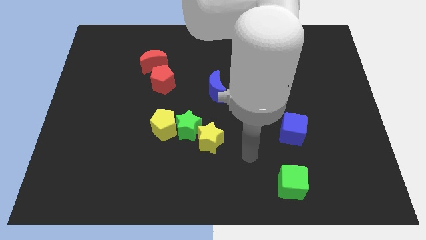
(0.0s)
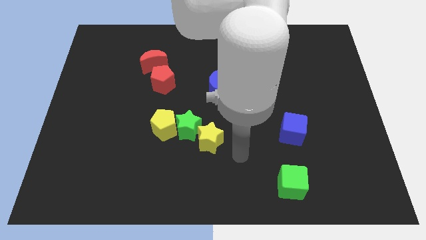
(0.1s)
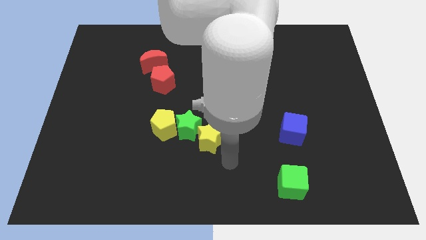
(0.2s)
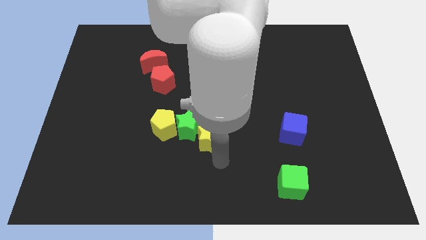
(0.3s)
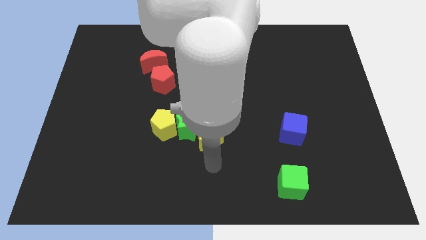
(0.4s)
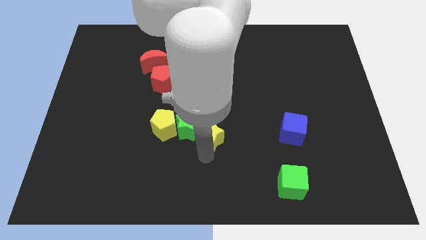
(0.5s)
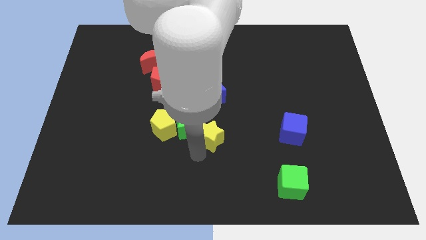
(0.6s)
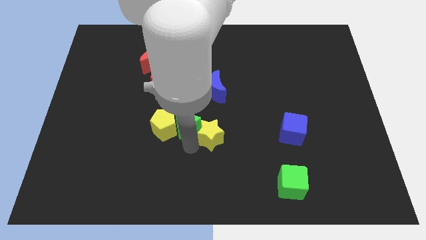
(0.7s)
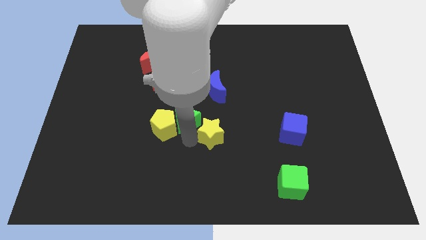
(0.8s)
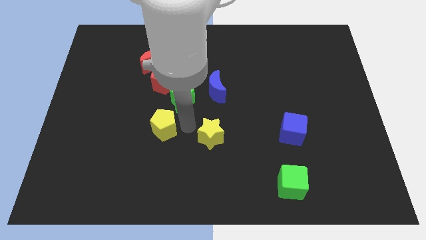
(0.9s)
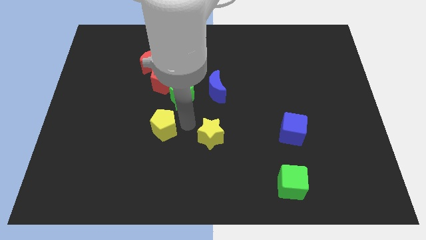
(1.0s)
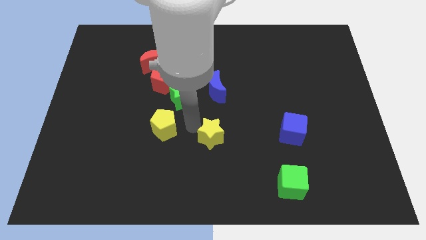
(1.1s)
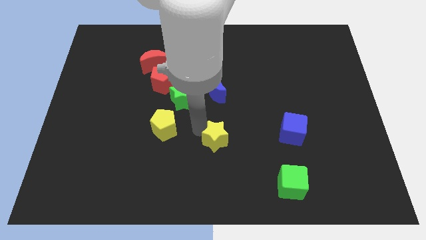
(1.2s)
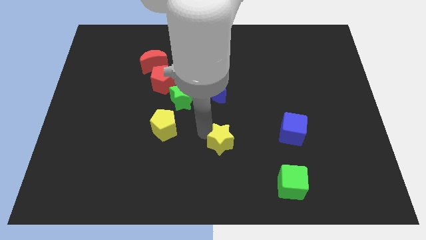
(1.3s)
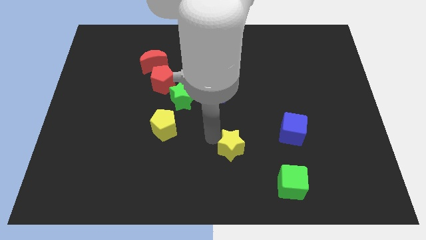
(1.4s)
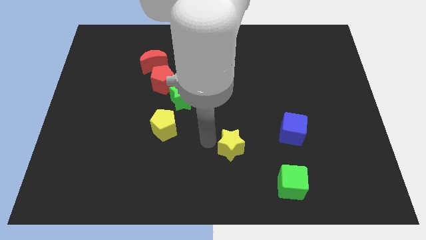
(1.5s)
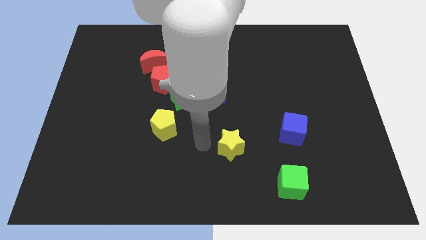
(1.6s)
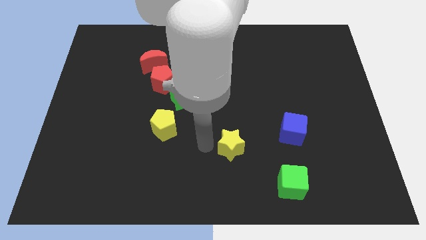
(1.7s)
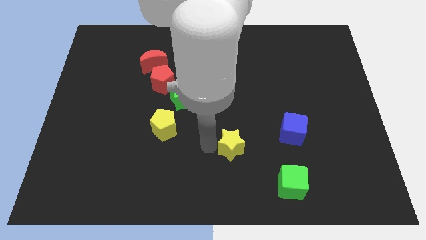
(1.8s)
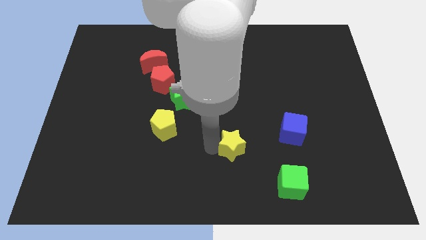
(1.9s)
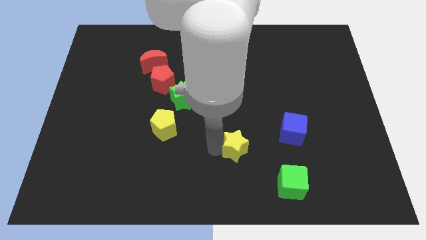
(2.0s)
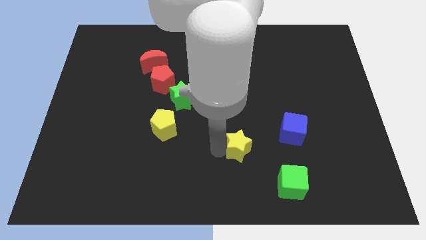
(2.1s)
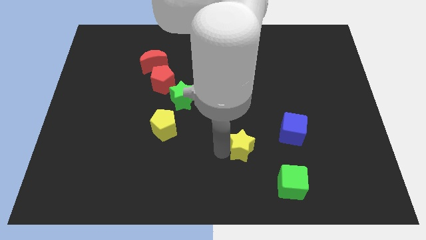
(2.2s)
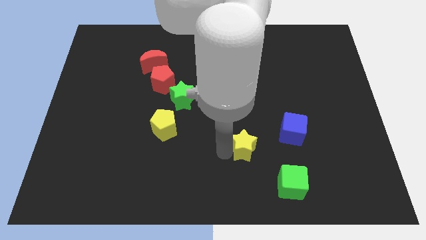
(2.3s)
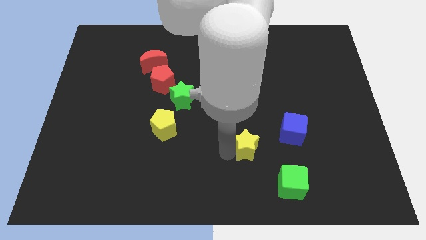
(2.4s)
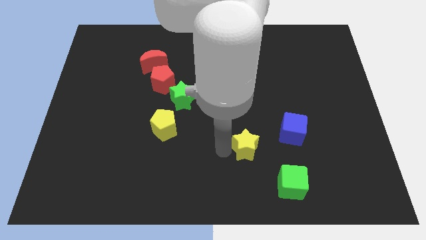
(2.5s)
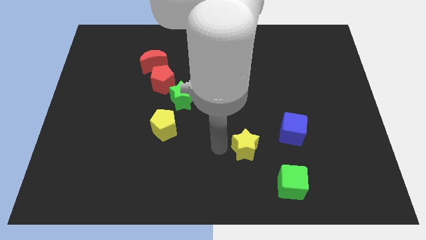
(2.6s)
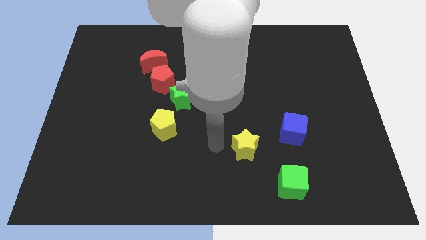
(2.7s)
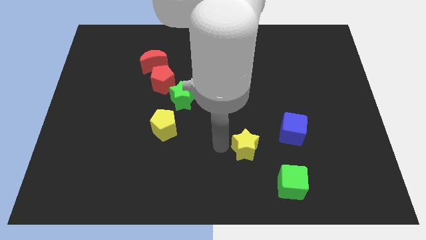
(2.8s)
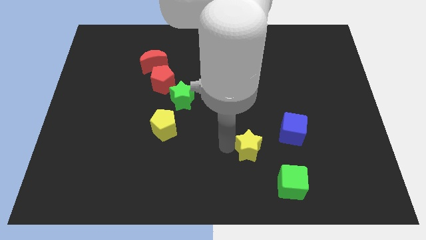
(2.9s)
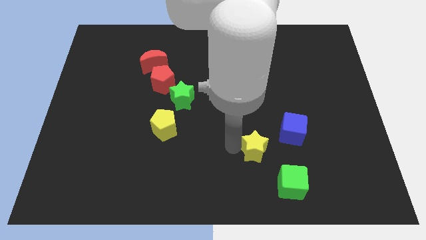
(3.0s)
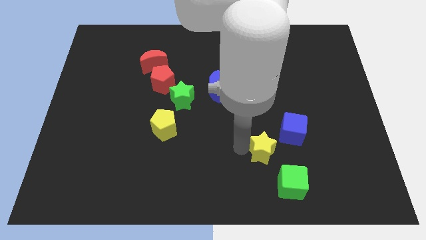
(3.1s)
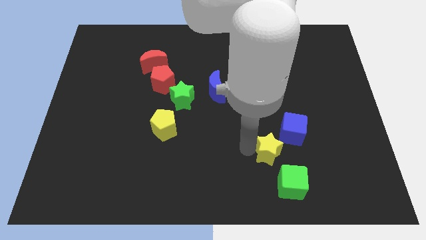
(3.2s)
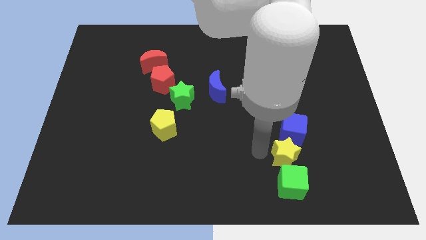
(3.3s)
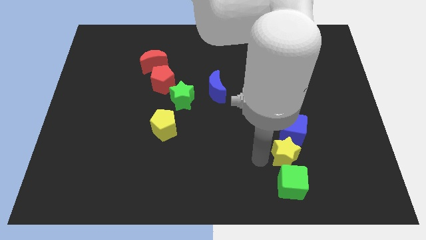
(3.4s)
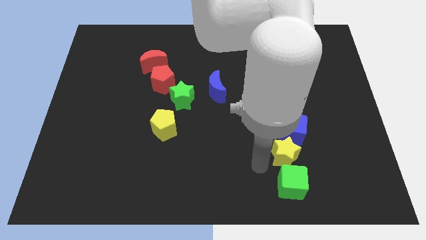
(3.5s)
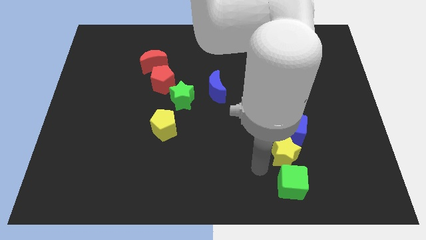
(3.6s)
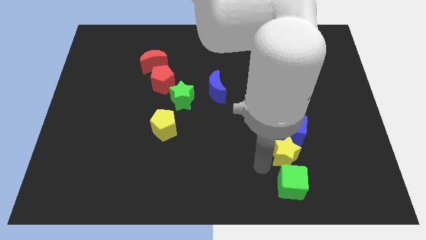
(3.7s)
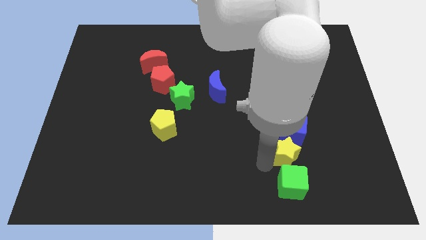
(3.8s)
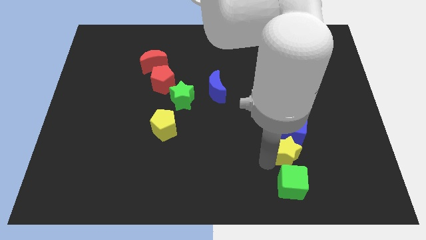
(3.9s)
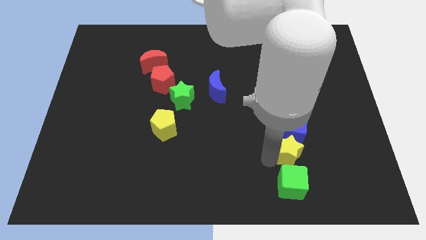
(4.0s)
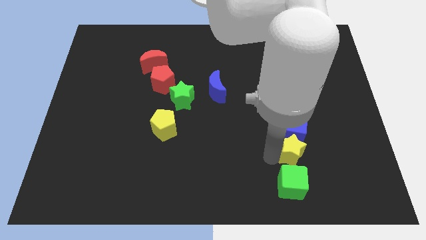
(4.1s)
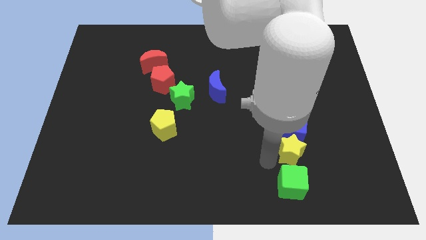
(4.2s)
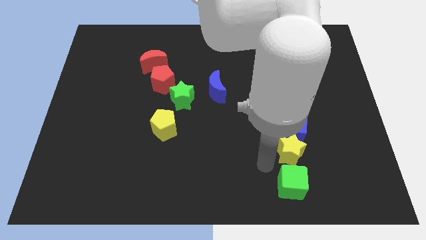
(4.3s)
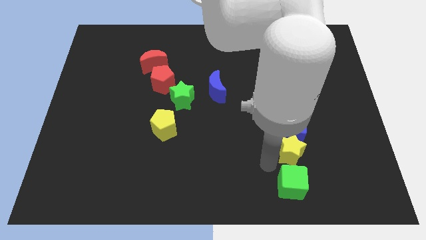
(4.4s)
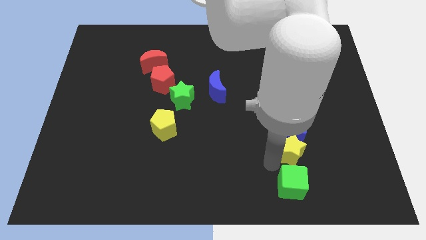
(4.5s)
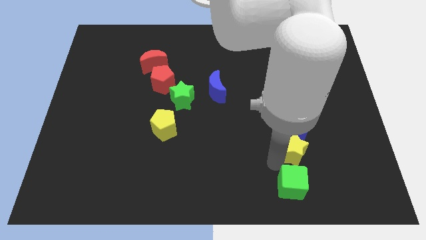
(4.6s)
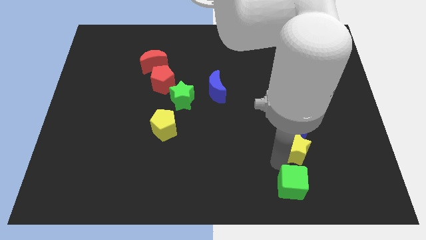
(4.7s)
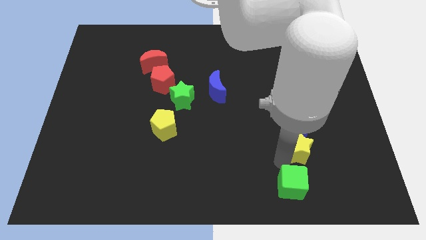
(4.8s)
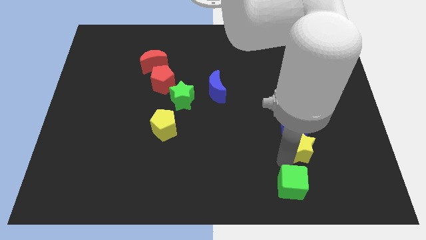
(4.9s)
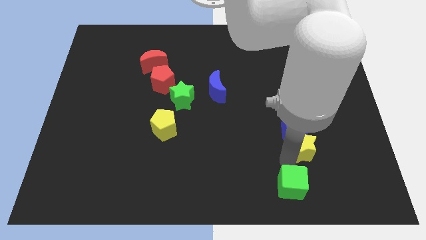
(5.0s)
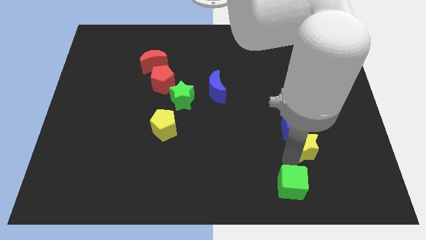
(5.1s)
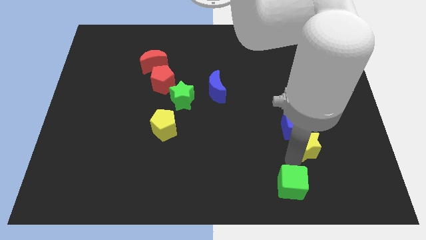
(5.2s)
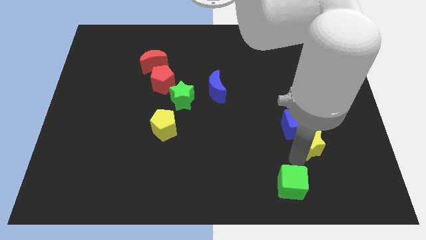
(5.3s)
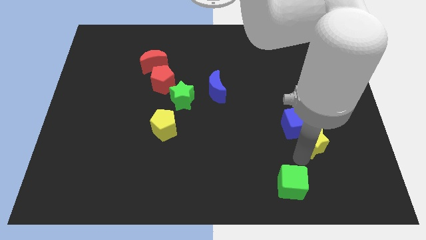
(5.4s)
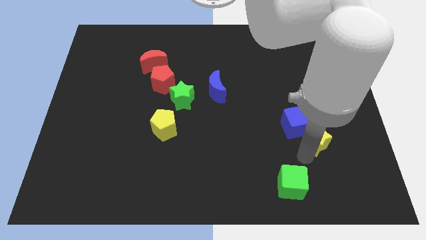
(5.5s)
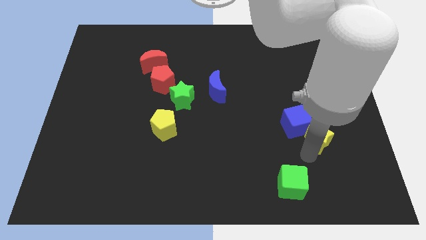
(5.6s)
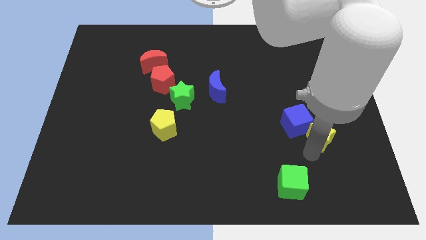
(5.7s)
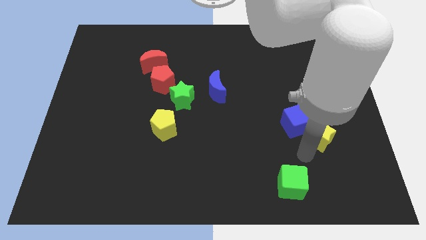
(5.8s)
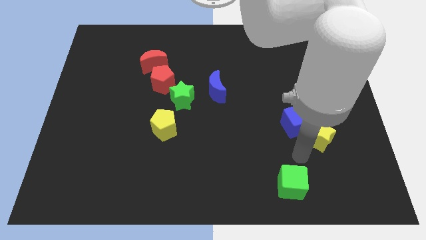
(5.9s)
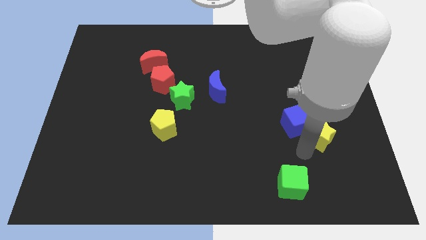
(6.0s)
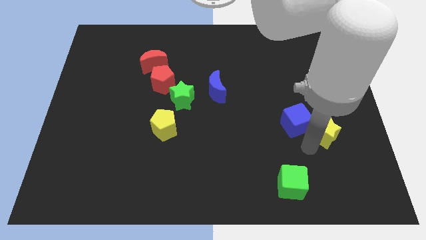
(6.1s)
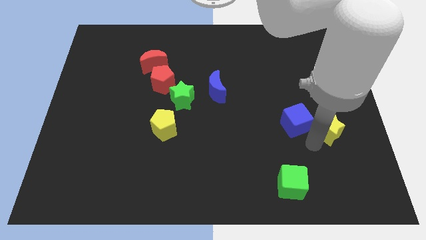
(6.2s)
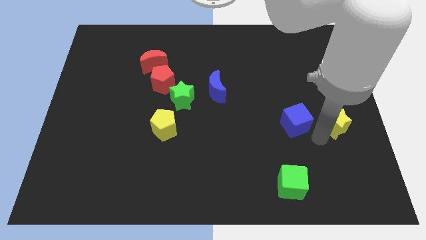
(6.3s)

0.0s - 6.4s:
move the yellow star to the right side

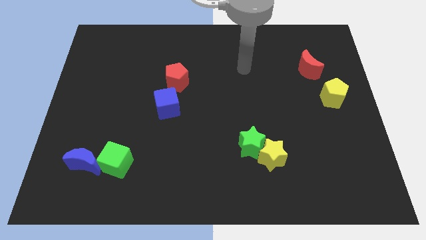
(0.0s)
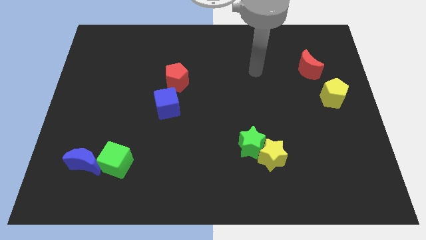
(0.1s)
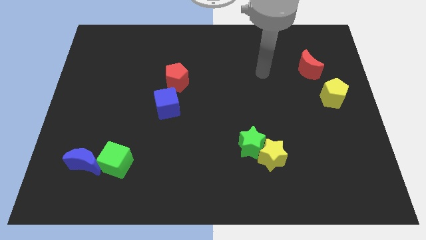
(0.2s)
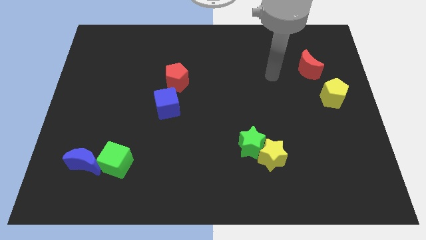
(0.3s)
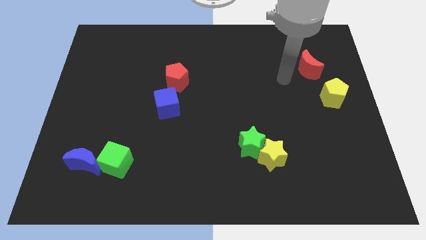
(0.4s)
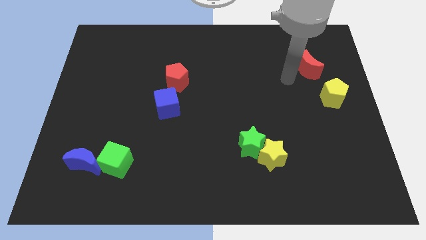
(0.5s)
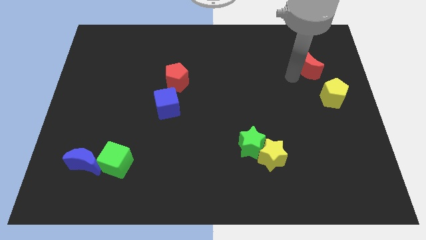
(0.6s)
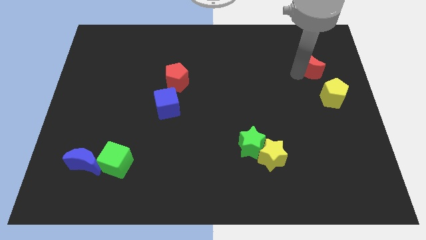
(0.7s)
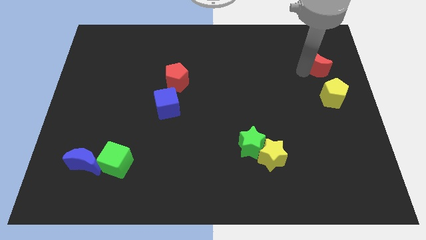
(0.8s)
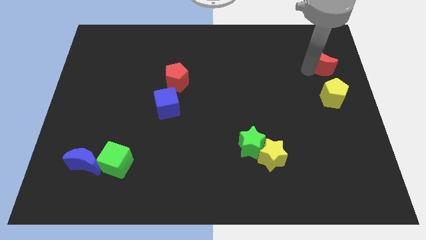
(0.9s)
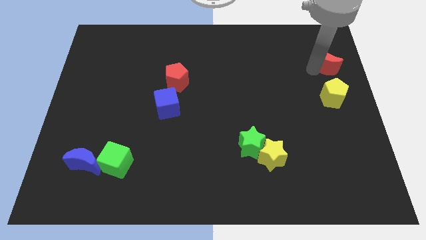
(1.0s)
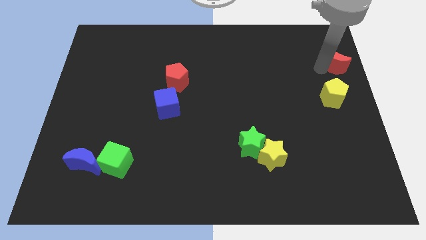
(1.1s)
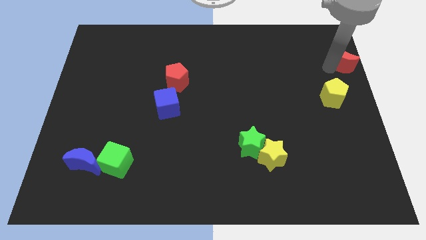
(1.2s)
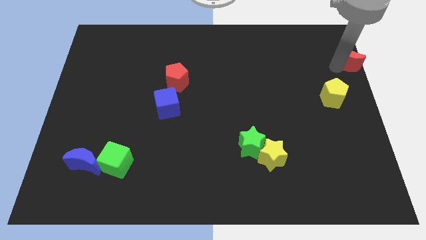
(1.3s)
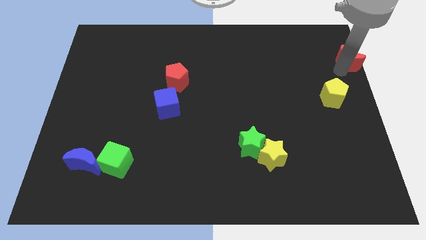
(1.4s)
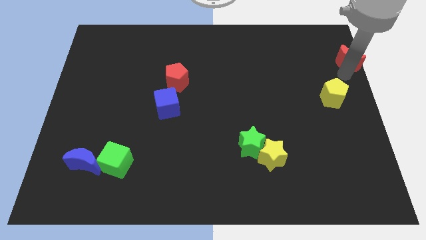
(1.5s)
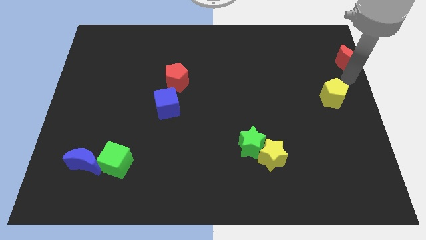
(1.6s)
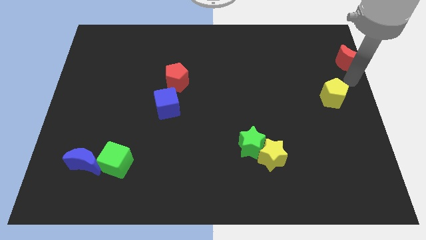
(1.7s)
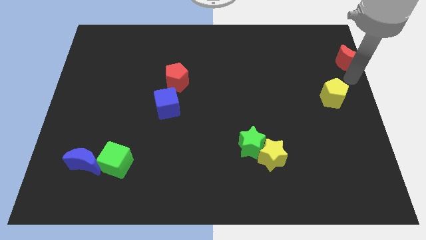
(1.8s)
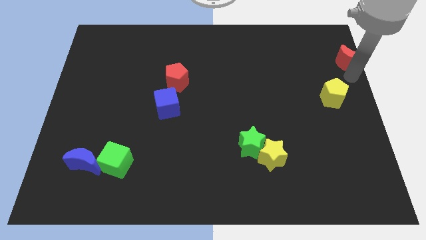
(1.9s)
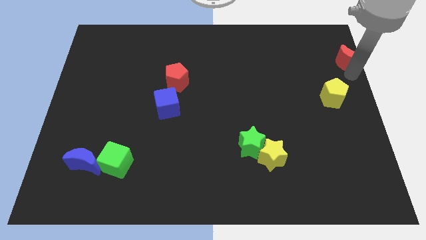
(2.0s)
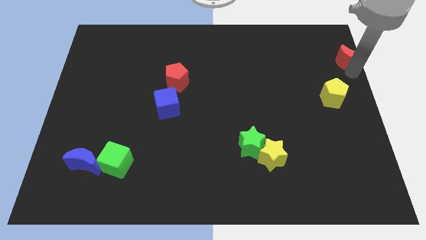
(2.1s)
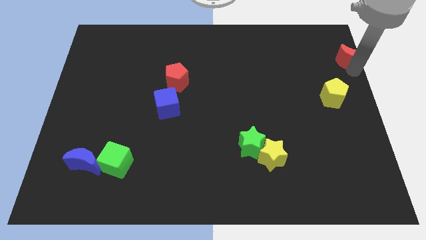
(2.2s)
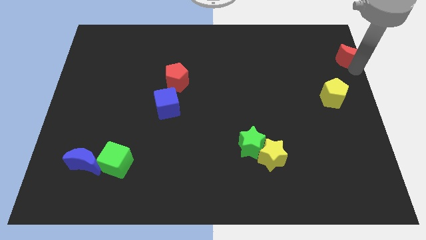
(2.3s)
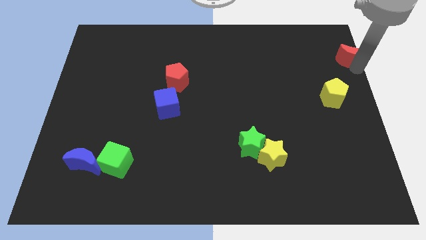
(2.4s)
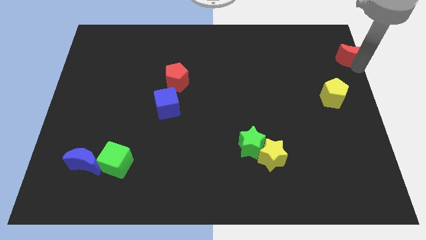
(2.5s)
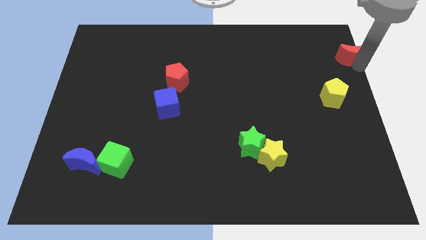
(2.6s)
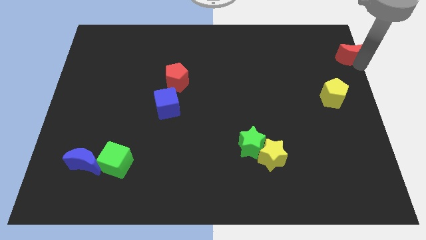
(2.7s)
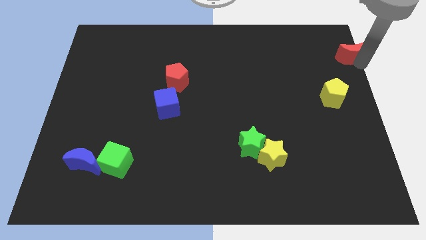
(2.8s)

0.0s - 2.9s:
put the red moon to the top right
